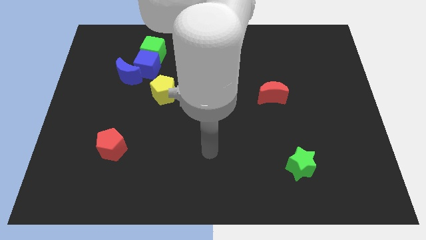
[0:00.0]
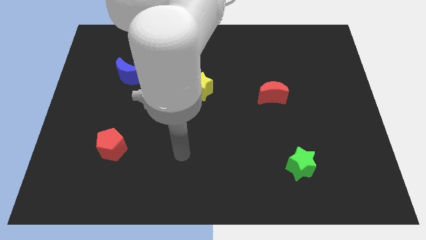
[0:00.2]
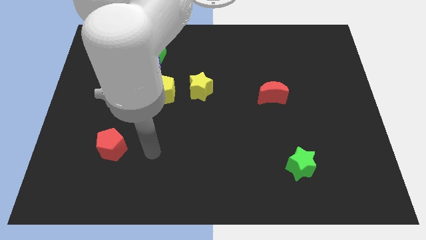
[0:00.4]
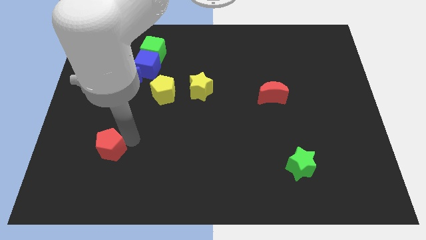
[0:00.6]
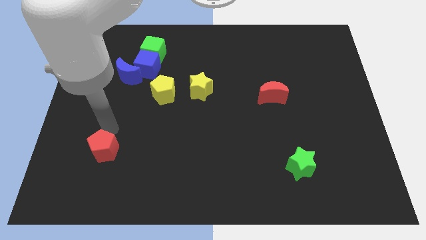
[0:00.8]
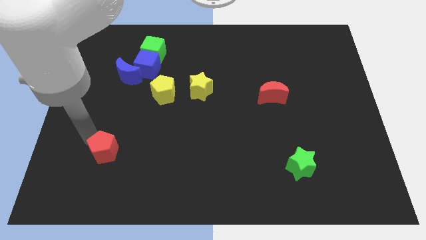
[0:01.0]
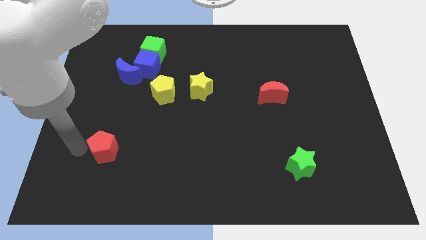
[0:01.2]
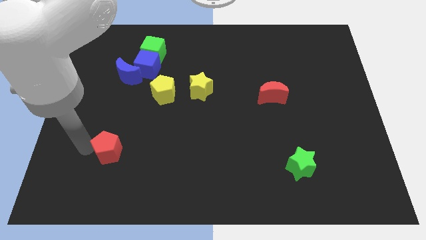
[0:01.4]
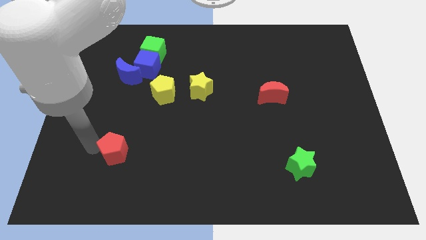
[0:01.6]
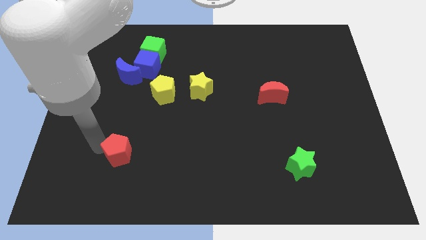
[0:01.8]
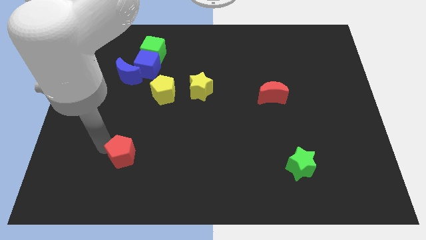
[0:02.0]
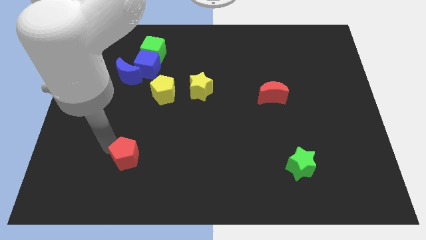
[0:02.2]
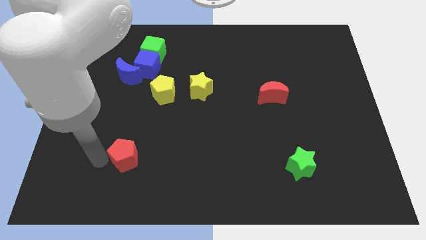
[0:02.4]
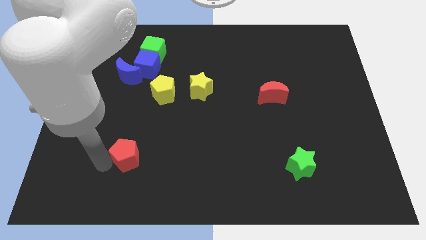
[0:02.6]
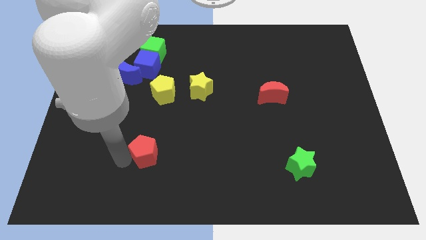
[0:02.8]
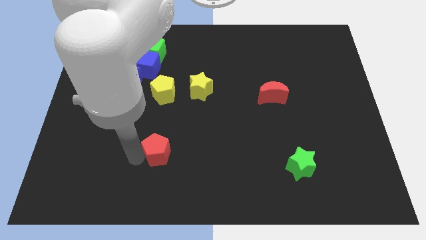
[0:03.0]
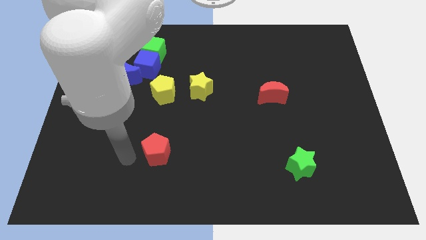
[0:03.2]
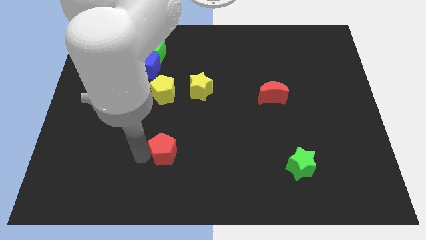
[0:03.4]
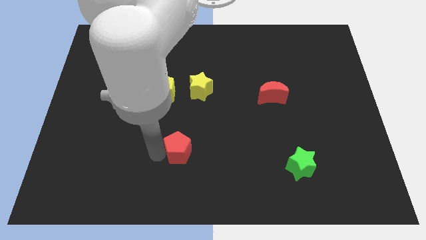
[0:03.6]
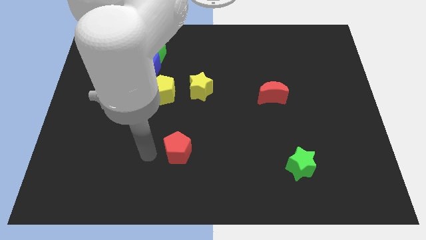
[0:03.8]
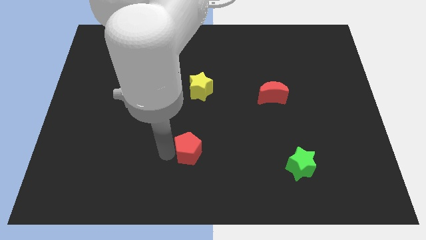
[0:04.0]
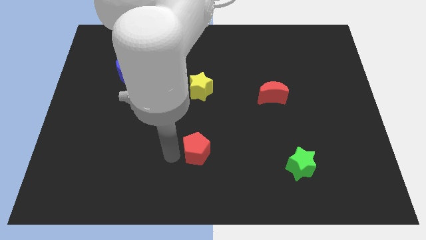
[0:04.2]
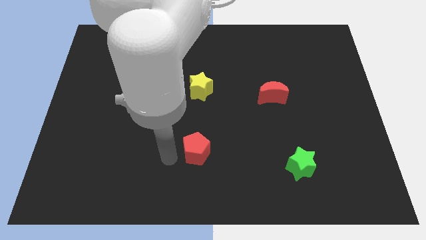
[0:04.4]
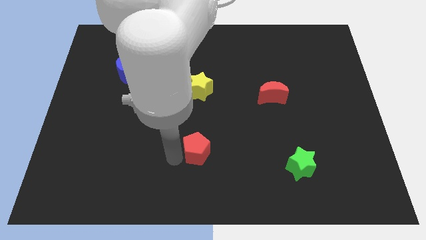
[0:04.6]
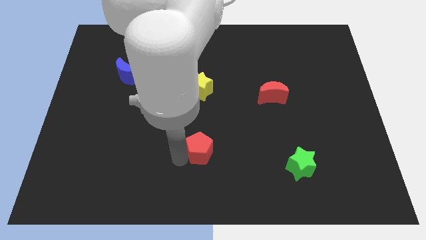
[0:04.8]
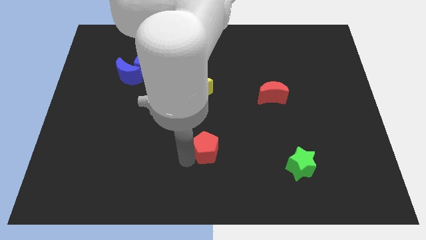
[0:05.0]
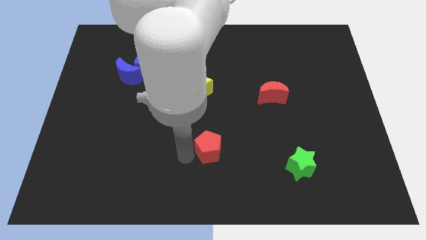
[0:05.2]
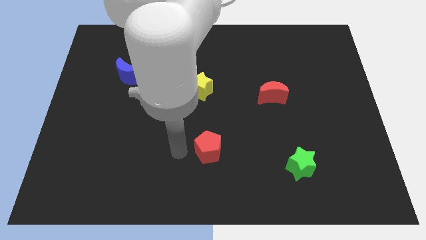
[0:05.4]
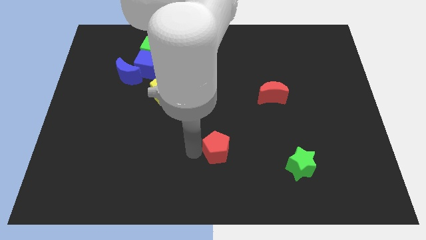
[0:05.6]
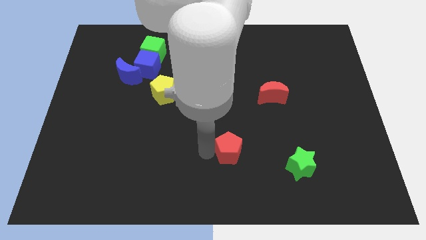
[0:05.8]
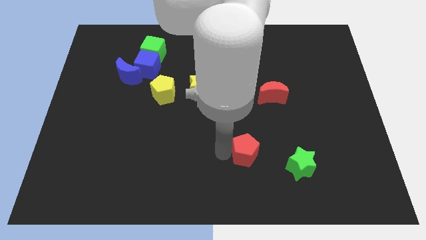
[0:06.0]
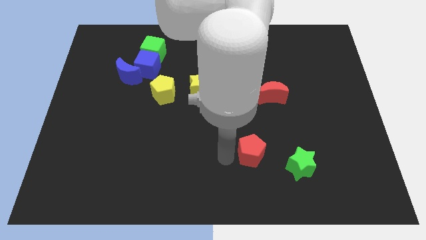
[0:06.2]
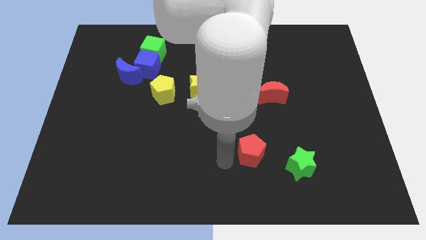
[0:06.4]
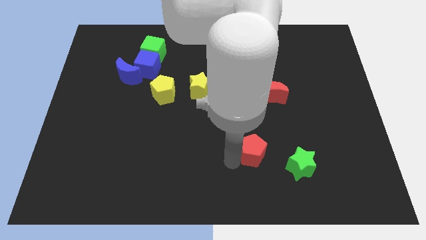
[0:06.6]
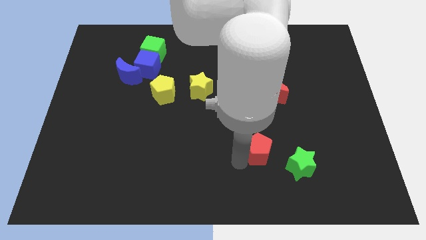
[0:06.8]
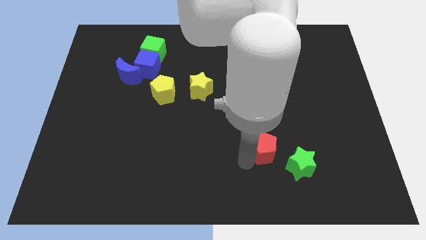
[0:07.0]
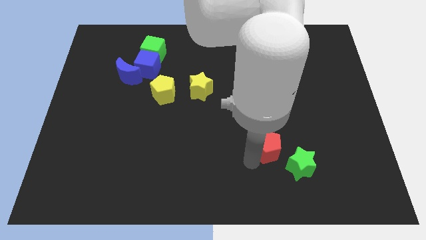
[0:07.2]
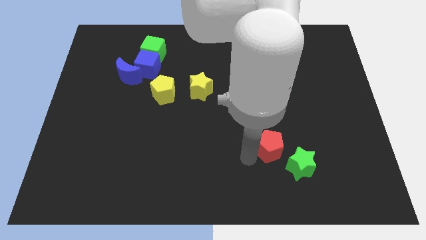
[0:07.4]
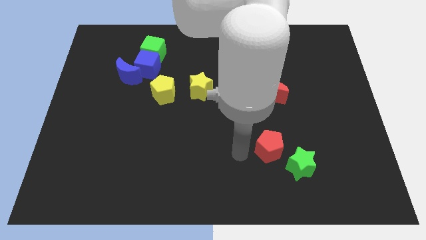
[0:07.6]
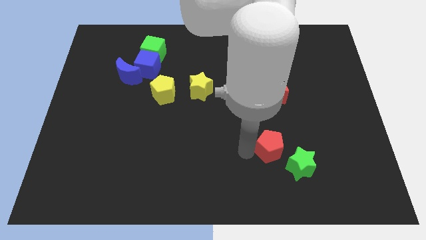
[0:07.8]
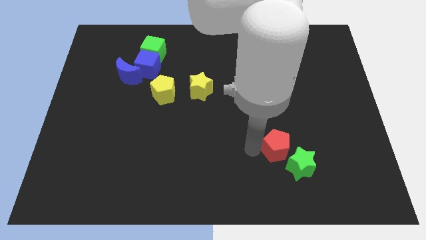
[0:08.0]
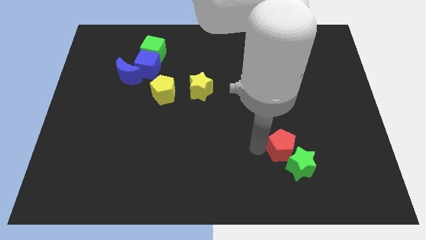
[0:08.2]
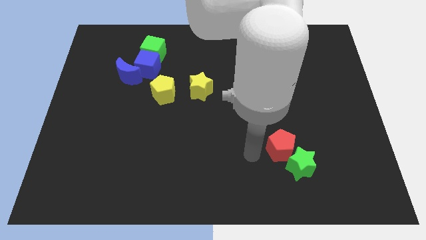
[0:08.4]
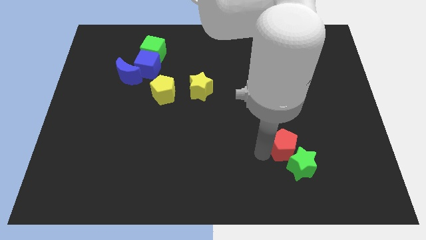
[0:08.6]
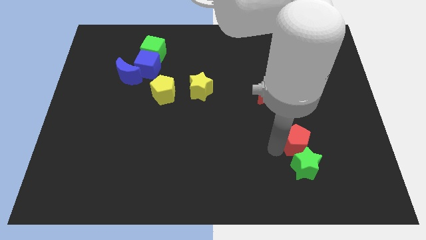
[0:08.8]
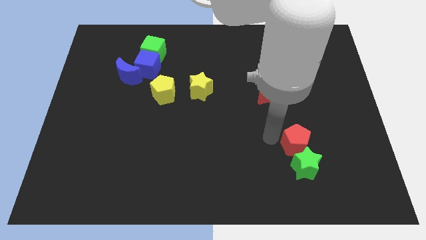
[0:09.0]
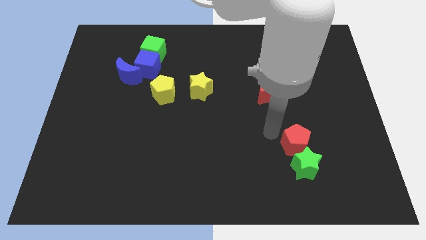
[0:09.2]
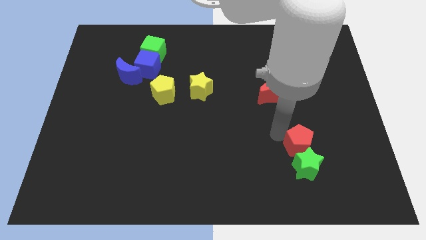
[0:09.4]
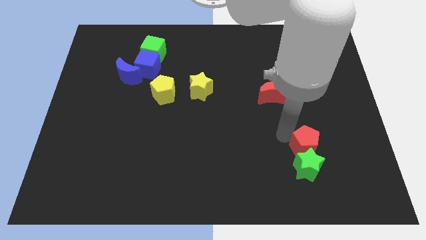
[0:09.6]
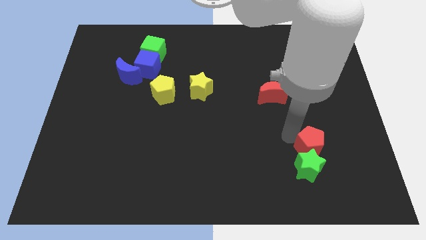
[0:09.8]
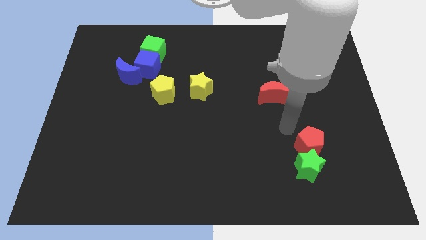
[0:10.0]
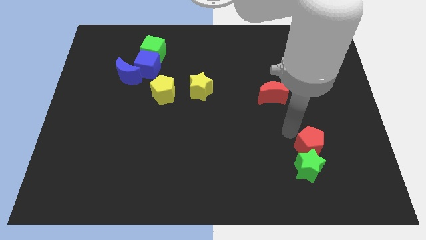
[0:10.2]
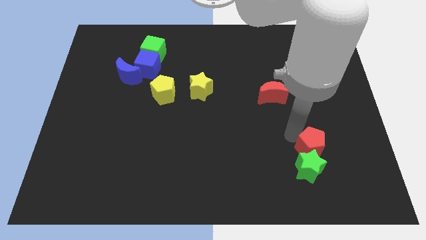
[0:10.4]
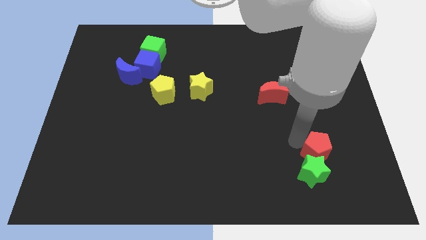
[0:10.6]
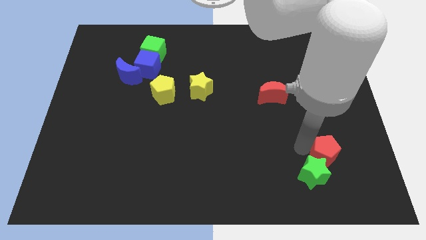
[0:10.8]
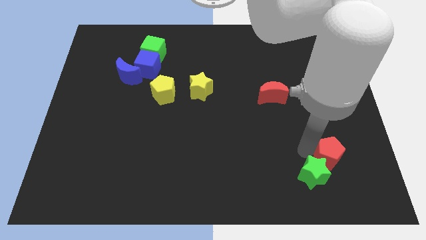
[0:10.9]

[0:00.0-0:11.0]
put the red pentagon to the right of the green star

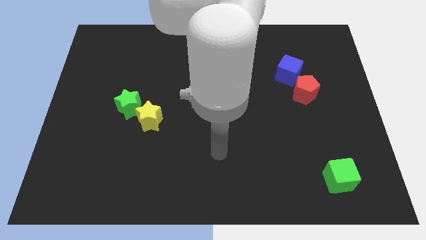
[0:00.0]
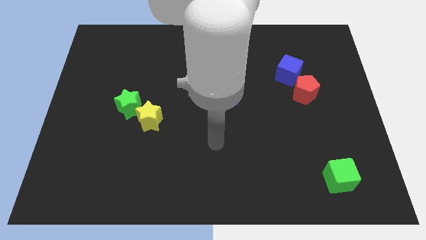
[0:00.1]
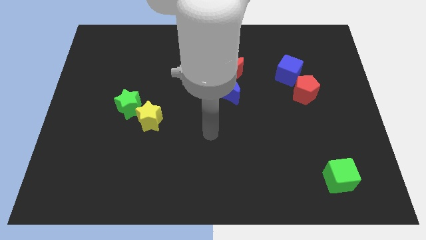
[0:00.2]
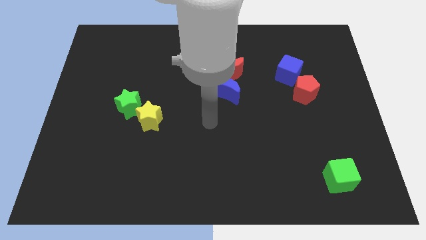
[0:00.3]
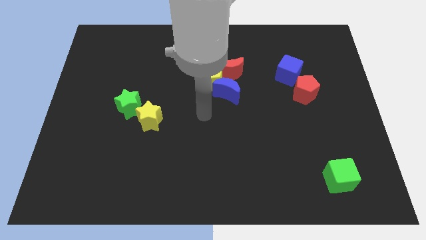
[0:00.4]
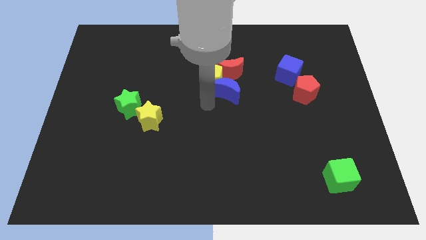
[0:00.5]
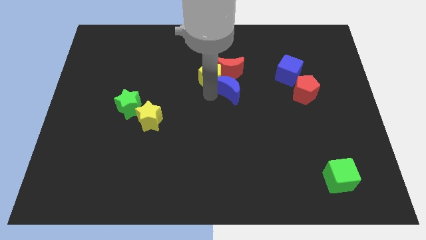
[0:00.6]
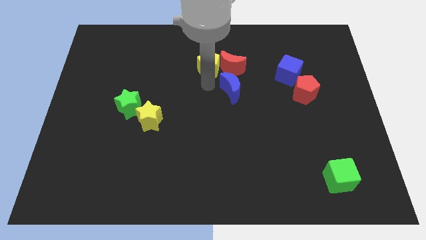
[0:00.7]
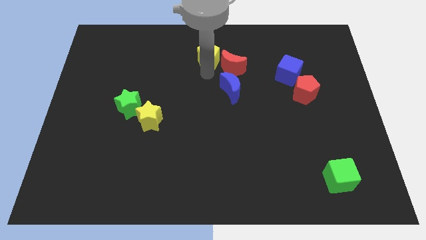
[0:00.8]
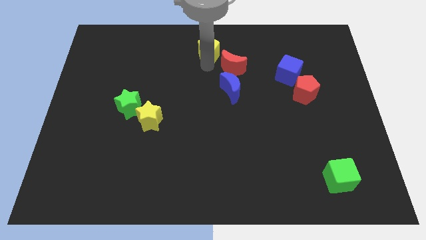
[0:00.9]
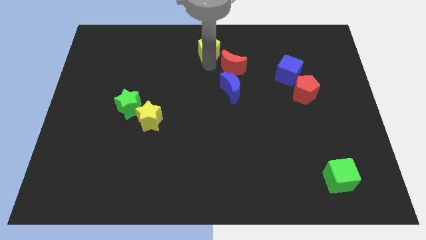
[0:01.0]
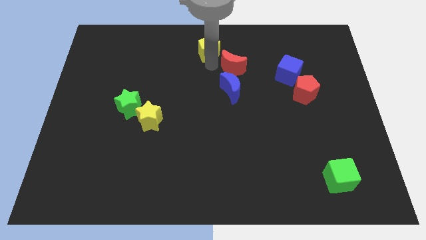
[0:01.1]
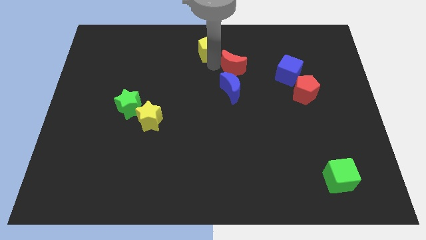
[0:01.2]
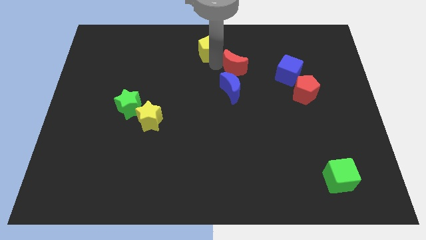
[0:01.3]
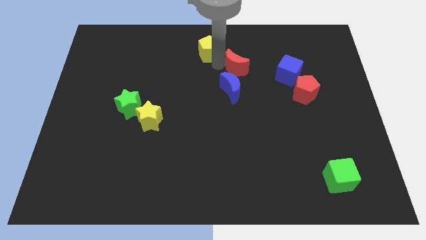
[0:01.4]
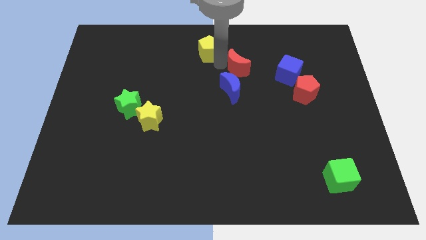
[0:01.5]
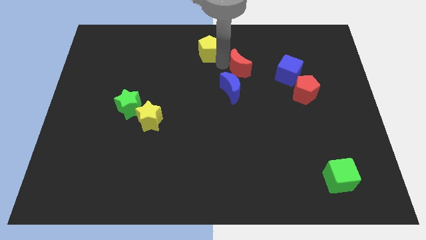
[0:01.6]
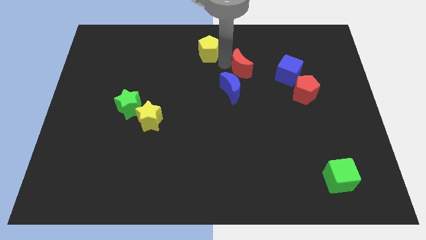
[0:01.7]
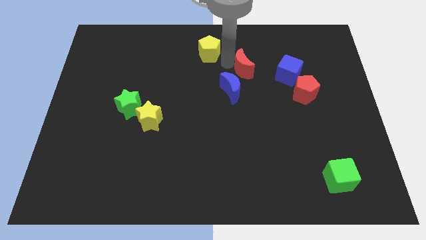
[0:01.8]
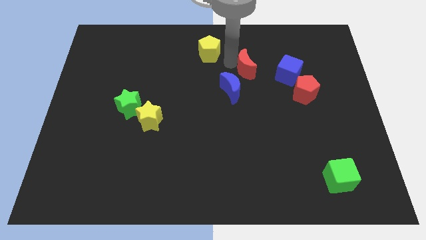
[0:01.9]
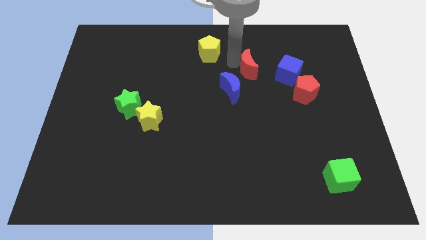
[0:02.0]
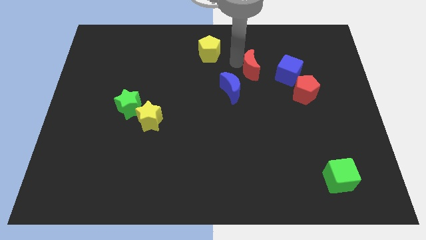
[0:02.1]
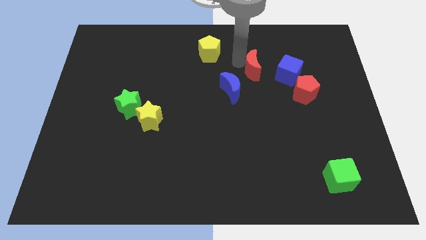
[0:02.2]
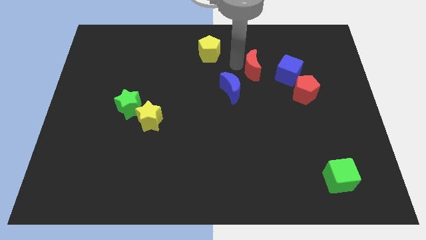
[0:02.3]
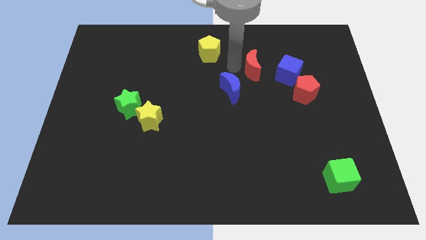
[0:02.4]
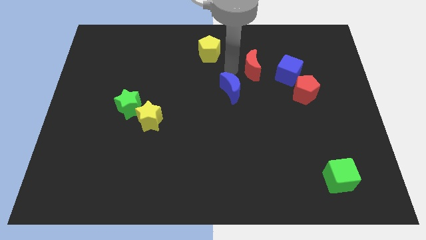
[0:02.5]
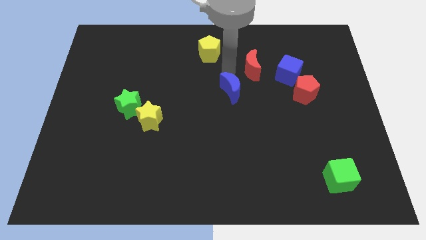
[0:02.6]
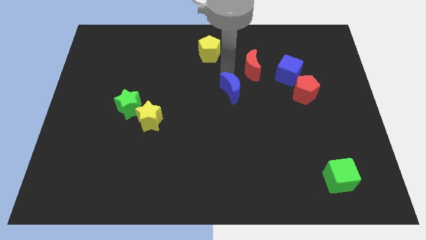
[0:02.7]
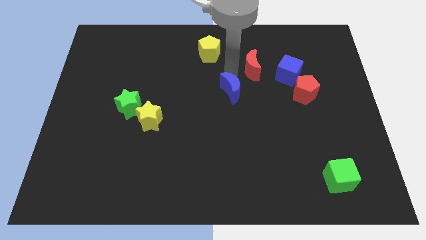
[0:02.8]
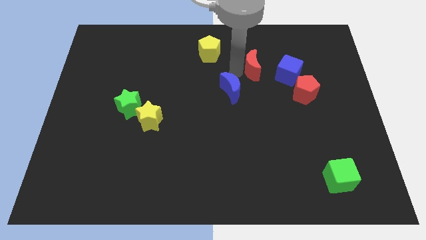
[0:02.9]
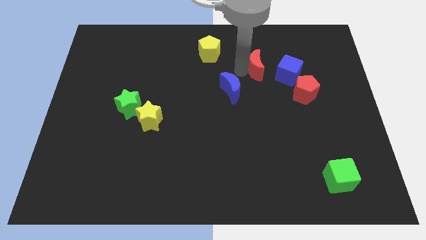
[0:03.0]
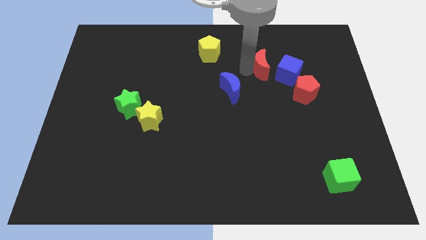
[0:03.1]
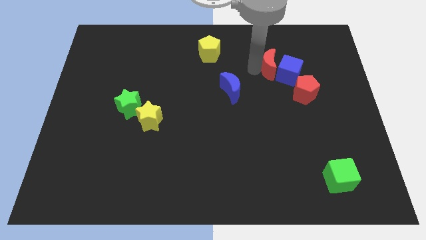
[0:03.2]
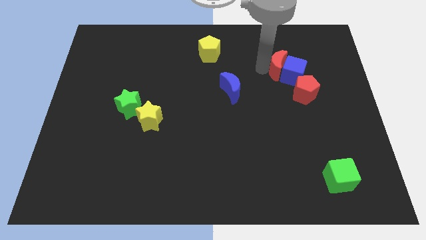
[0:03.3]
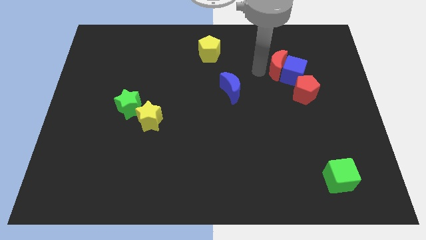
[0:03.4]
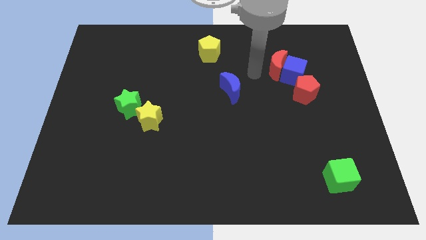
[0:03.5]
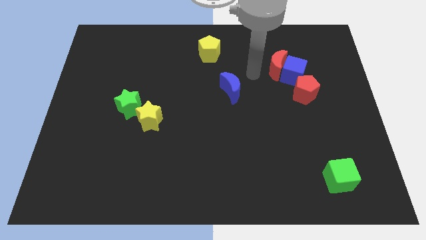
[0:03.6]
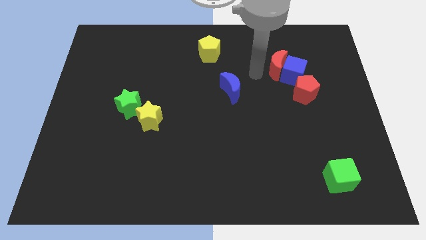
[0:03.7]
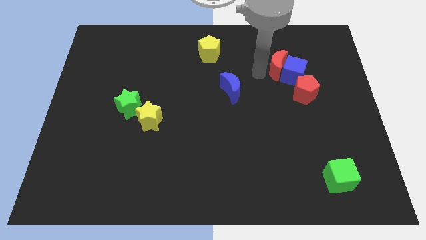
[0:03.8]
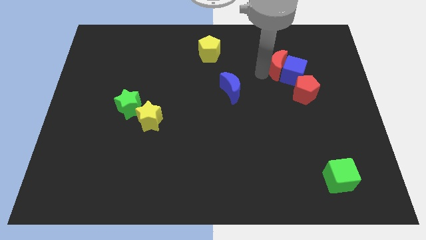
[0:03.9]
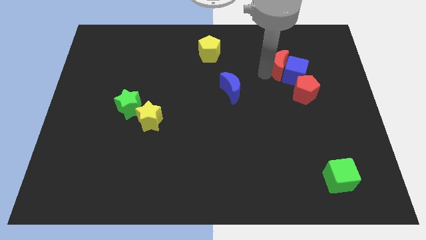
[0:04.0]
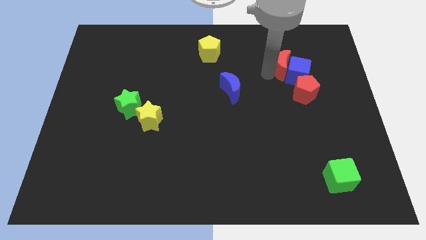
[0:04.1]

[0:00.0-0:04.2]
put the red moon to the top of the red pentagon
